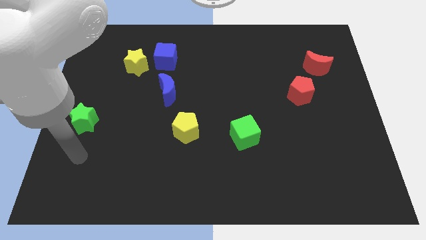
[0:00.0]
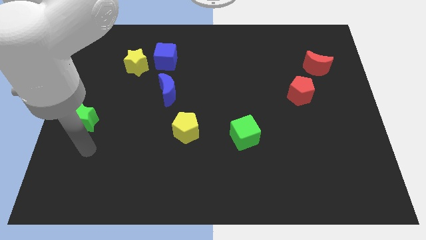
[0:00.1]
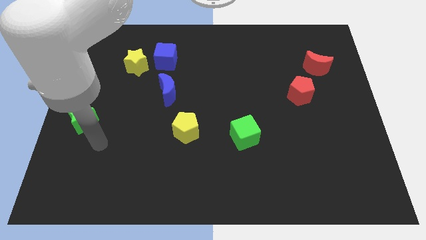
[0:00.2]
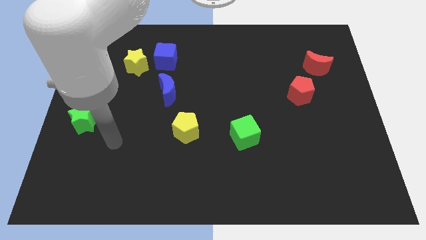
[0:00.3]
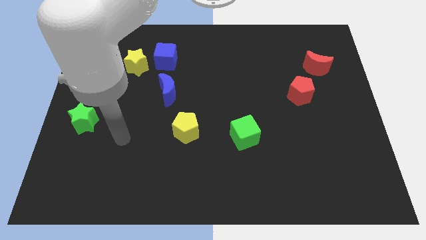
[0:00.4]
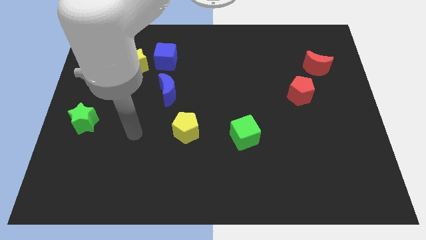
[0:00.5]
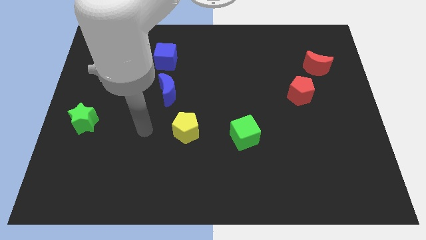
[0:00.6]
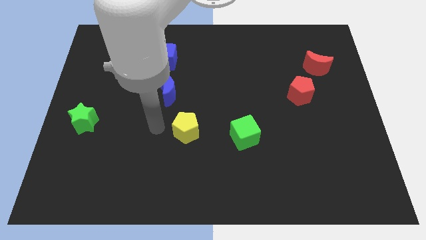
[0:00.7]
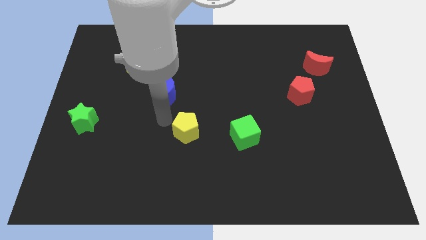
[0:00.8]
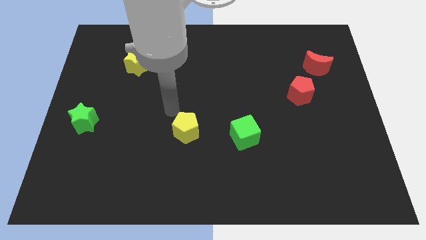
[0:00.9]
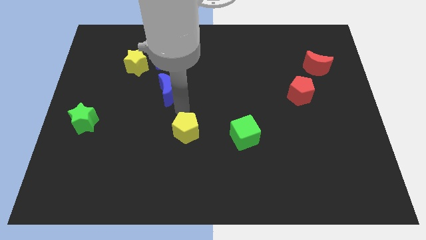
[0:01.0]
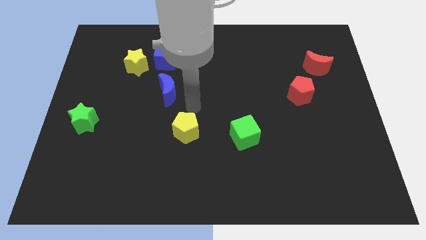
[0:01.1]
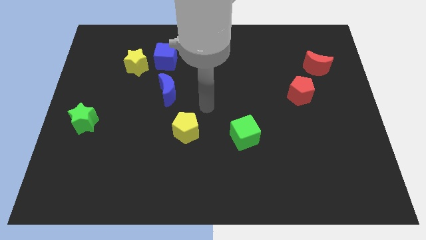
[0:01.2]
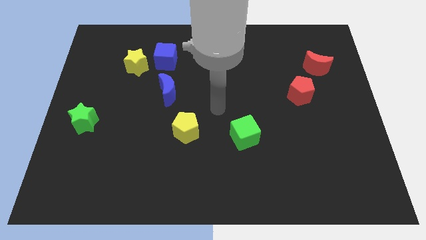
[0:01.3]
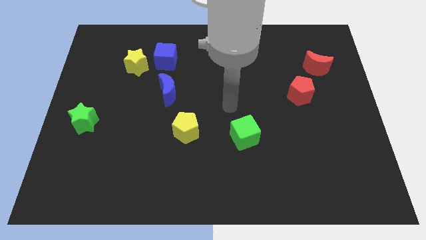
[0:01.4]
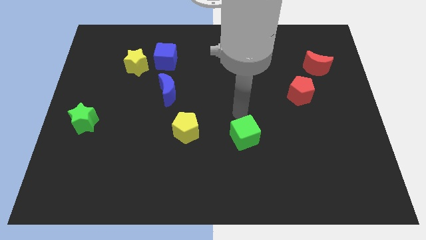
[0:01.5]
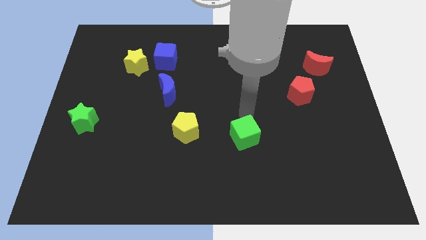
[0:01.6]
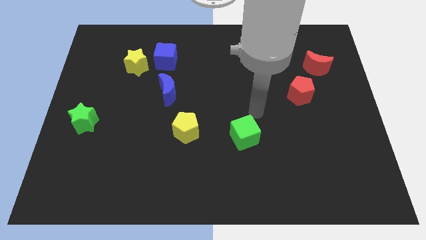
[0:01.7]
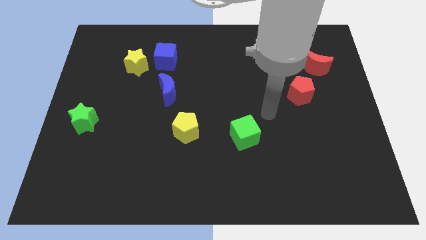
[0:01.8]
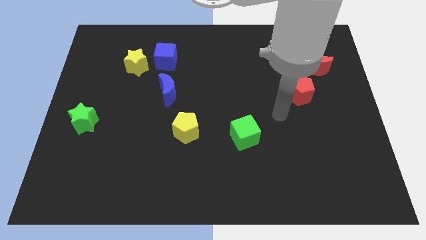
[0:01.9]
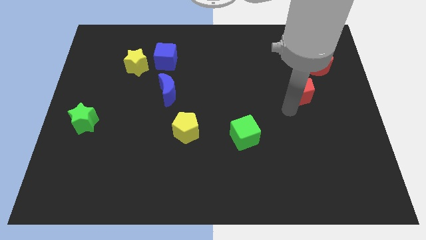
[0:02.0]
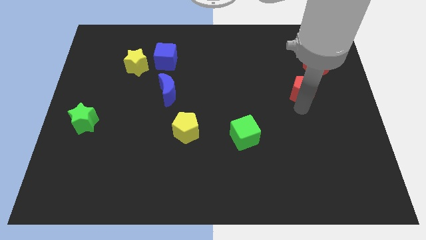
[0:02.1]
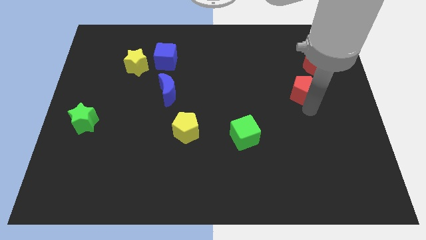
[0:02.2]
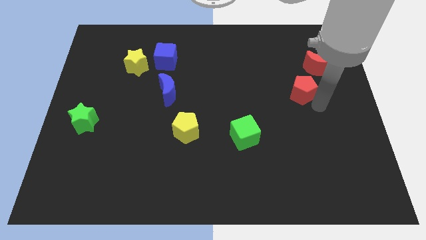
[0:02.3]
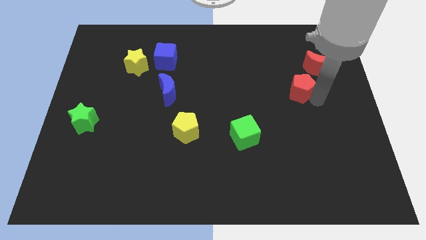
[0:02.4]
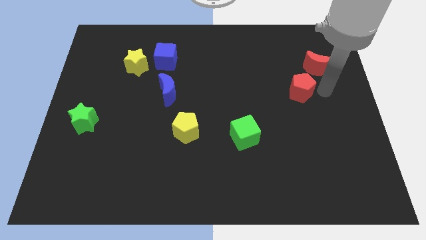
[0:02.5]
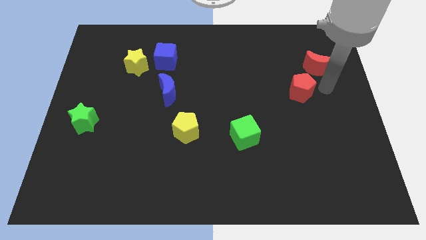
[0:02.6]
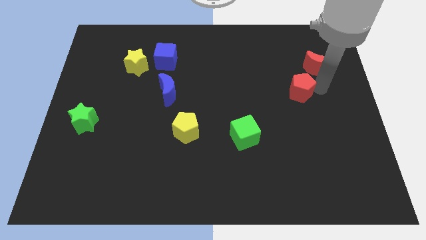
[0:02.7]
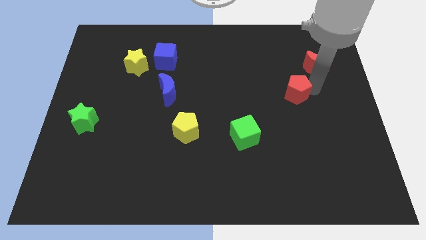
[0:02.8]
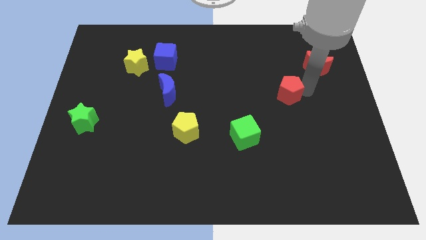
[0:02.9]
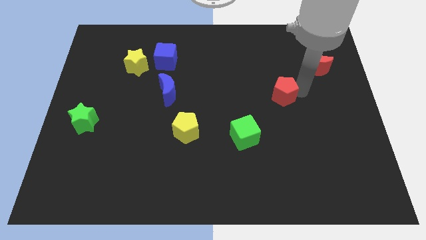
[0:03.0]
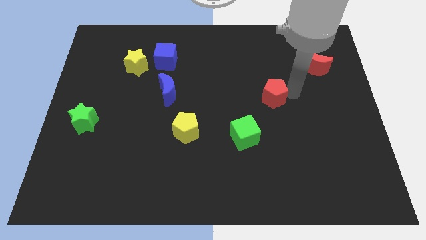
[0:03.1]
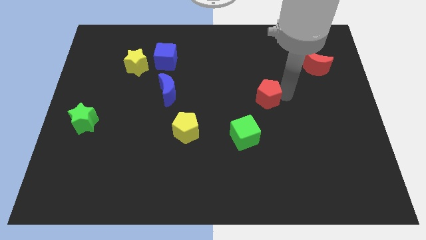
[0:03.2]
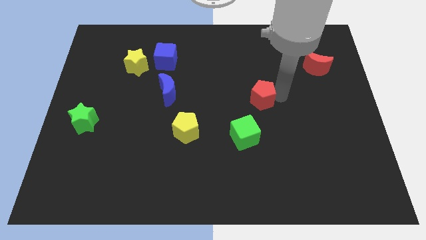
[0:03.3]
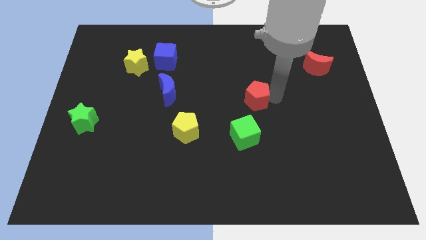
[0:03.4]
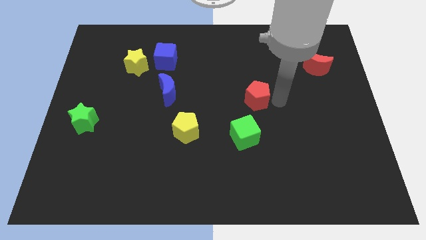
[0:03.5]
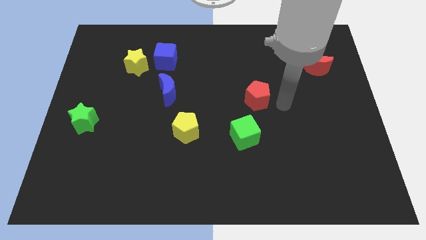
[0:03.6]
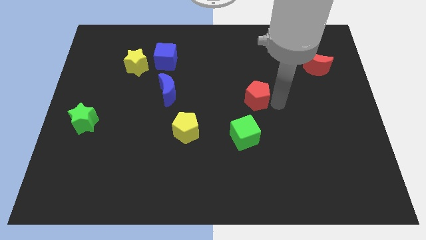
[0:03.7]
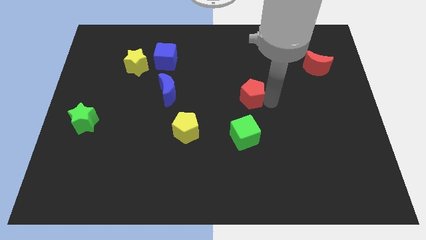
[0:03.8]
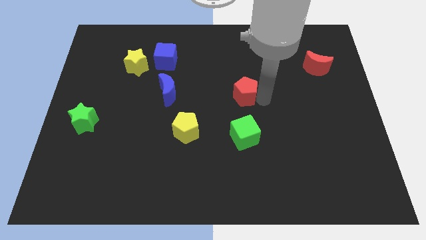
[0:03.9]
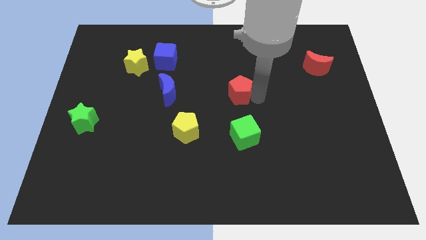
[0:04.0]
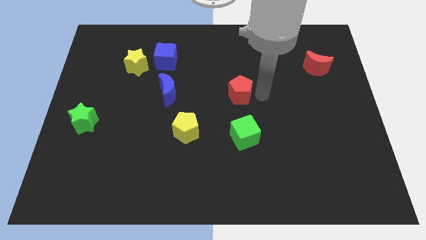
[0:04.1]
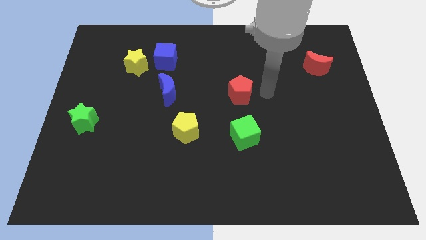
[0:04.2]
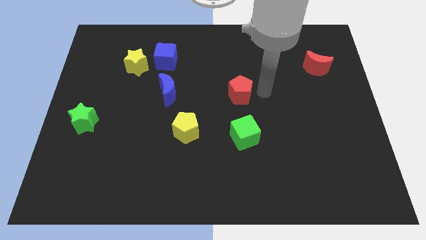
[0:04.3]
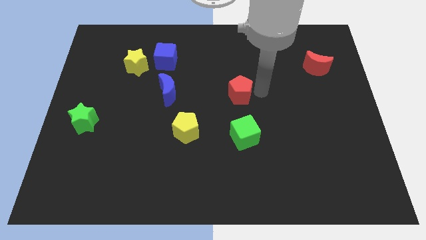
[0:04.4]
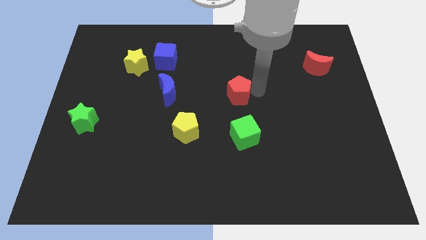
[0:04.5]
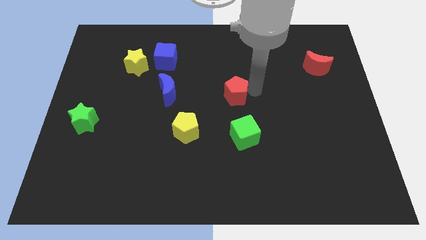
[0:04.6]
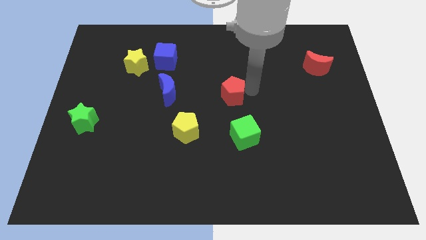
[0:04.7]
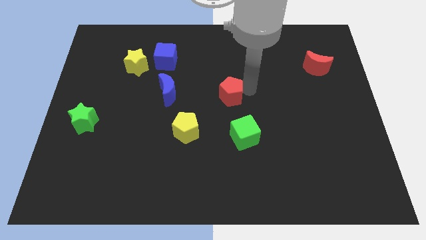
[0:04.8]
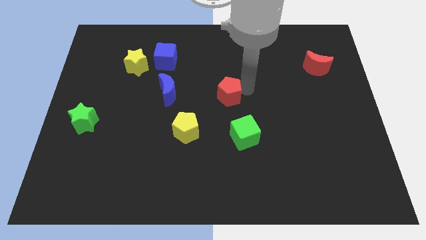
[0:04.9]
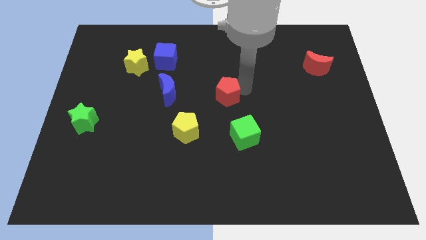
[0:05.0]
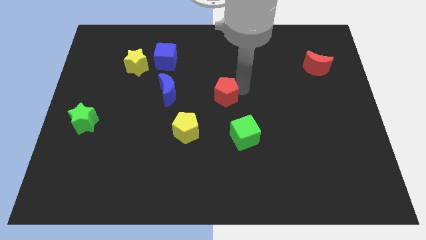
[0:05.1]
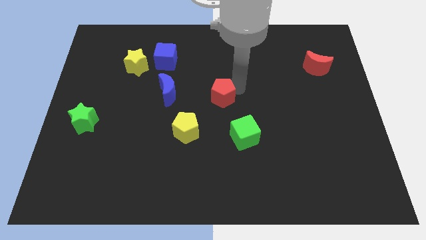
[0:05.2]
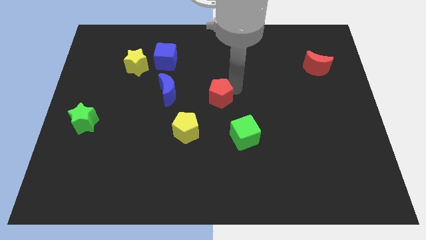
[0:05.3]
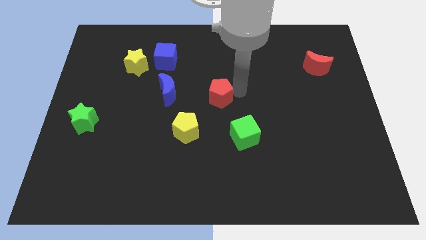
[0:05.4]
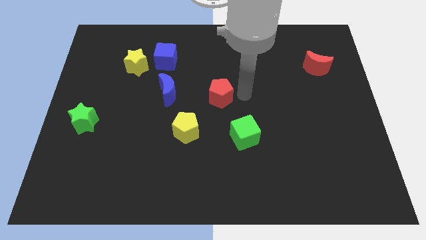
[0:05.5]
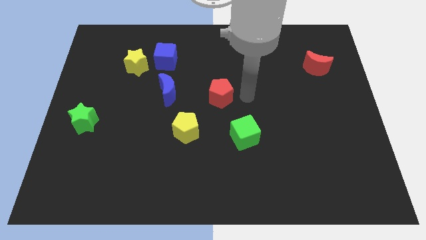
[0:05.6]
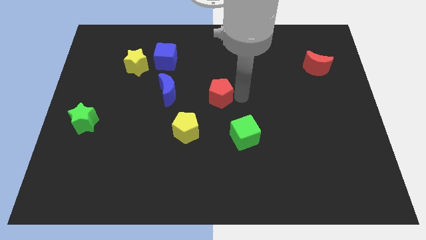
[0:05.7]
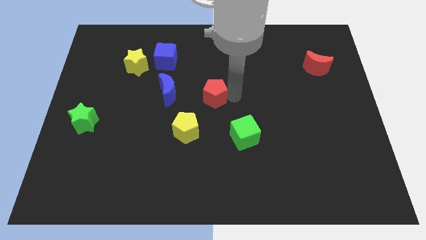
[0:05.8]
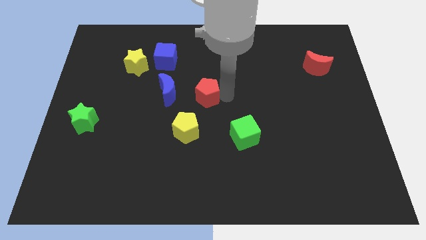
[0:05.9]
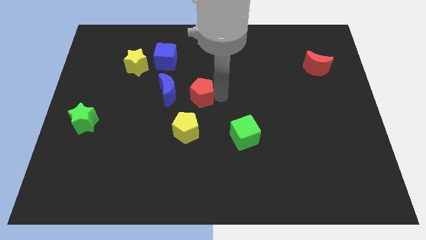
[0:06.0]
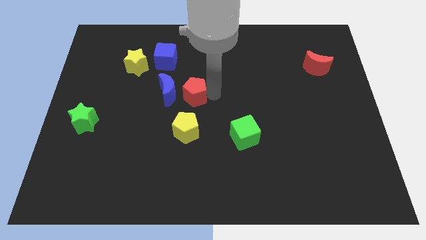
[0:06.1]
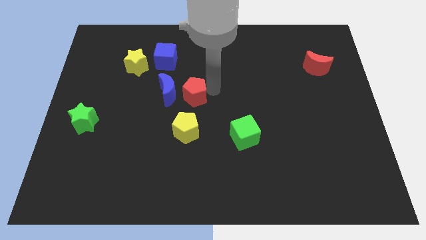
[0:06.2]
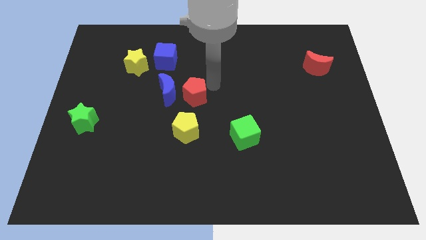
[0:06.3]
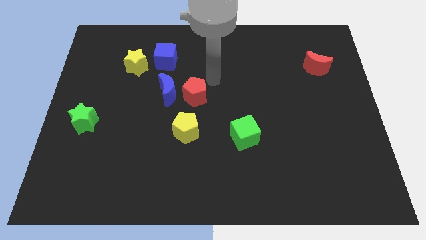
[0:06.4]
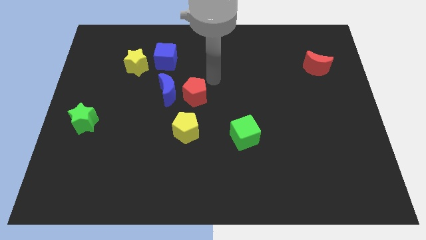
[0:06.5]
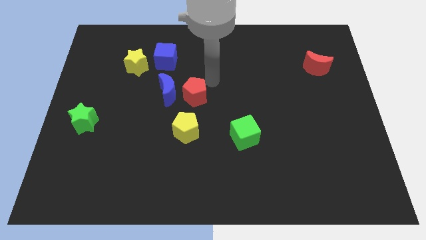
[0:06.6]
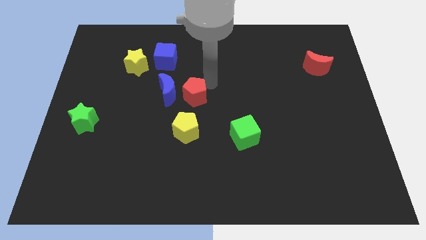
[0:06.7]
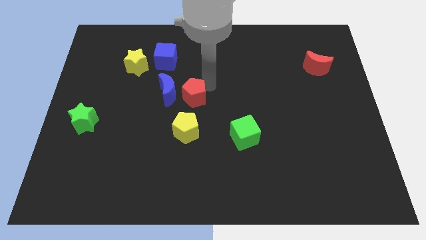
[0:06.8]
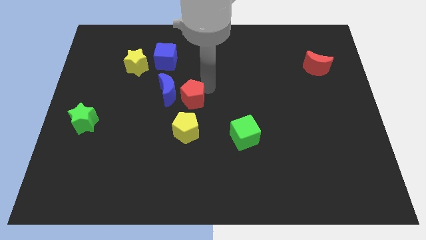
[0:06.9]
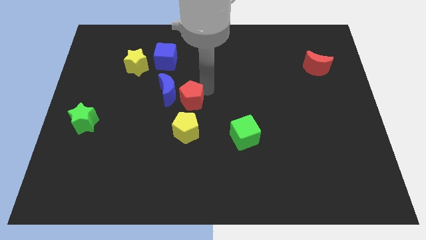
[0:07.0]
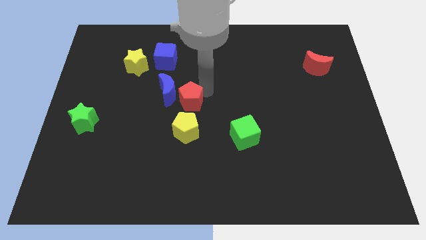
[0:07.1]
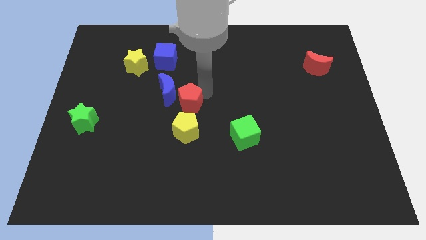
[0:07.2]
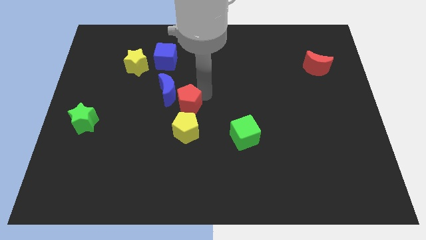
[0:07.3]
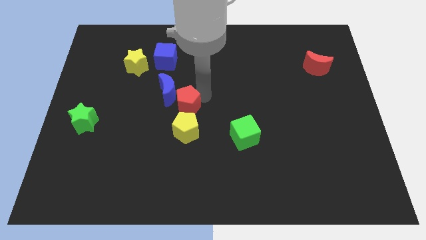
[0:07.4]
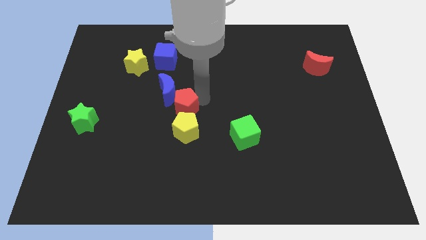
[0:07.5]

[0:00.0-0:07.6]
slide the red pentagon below the blue moon
